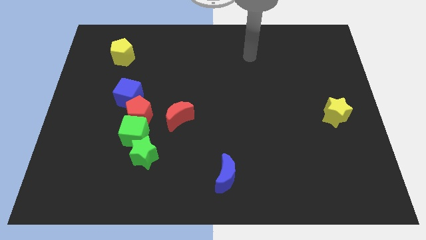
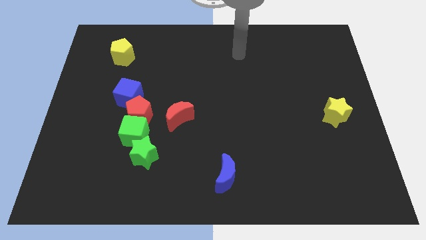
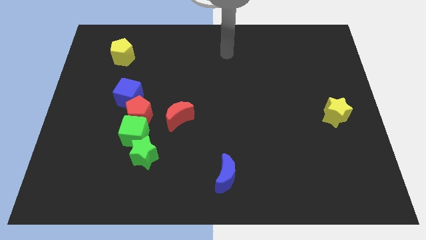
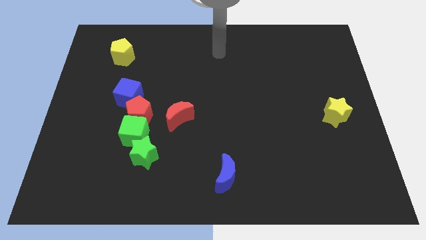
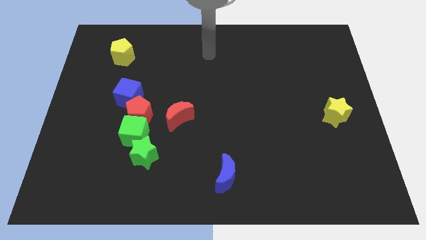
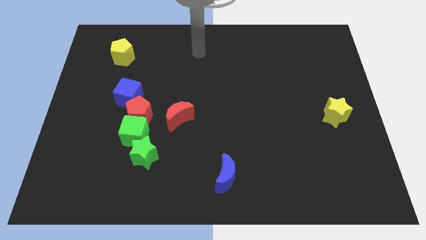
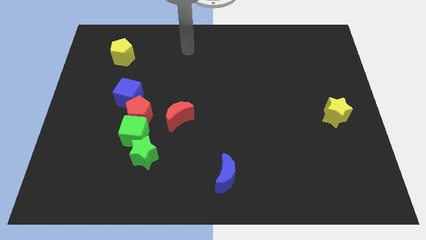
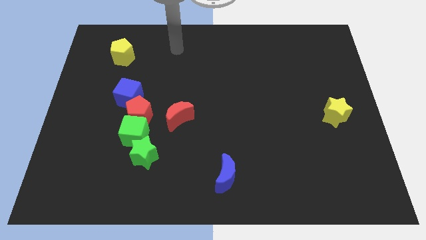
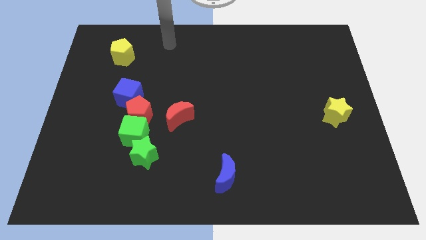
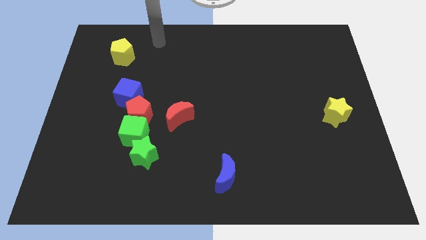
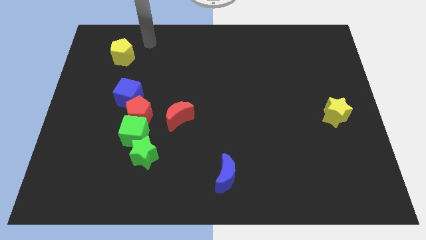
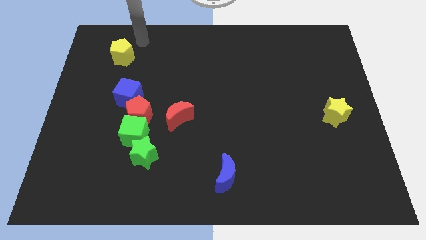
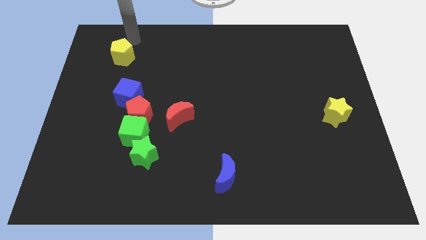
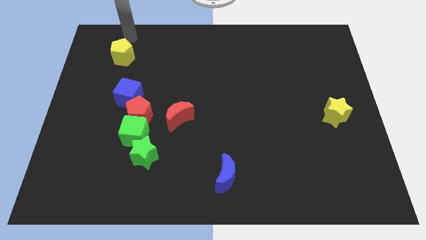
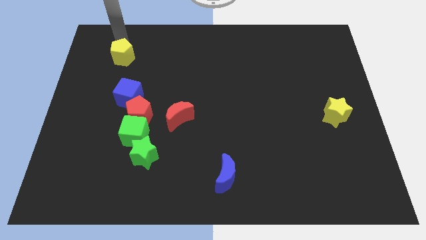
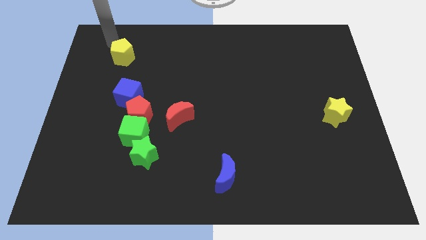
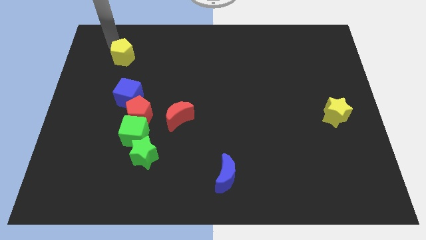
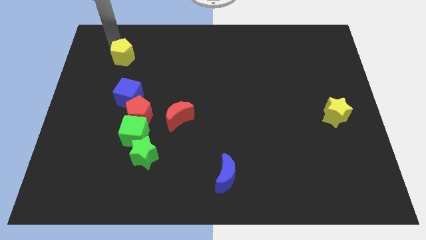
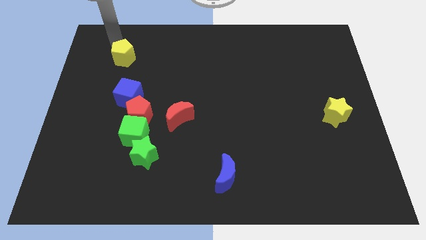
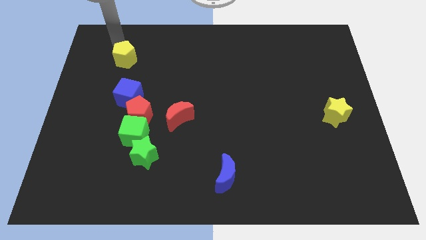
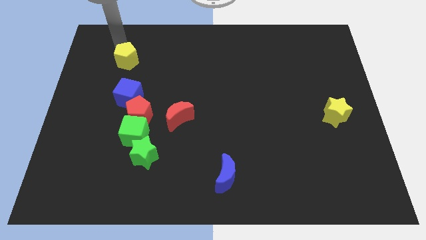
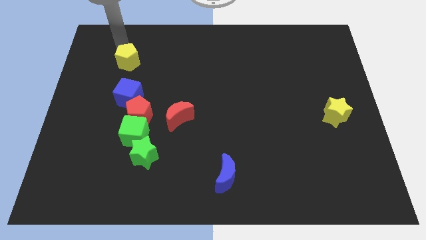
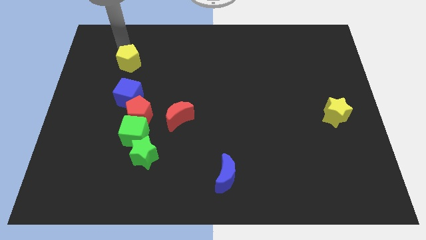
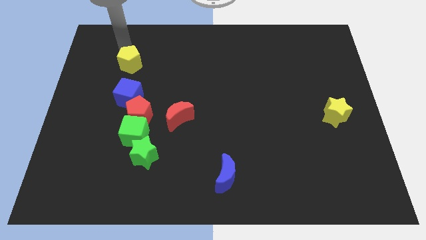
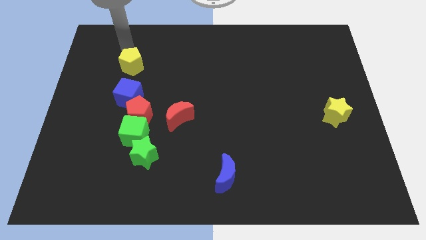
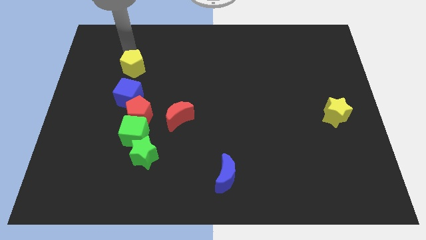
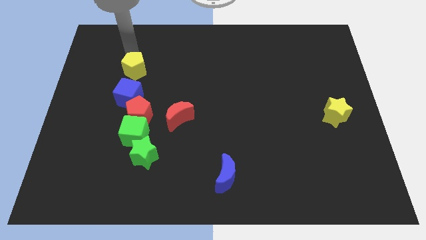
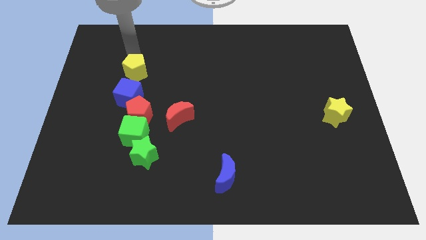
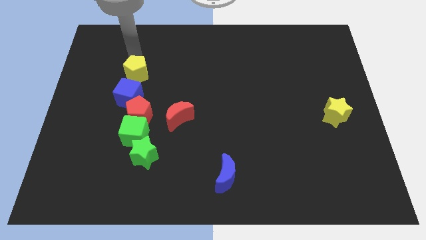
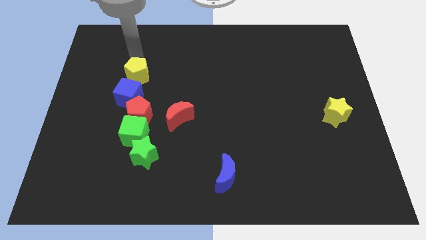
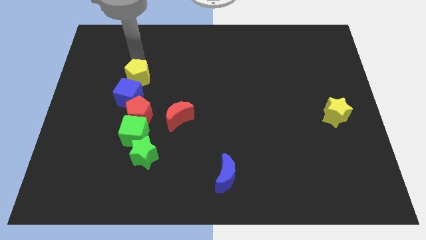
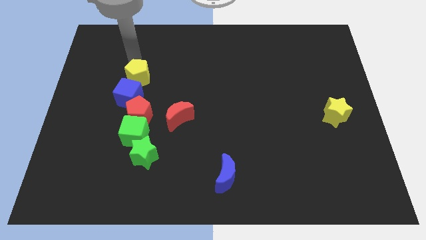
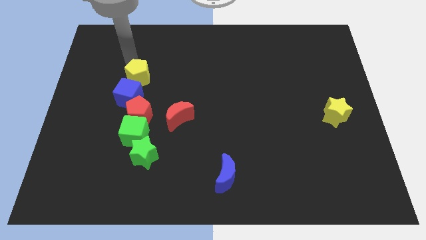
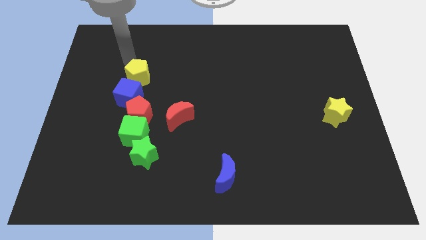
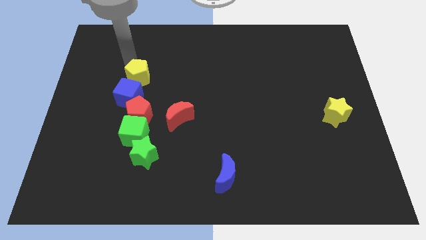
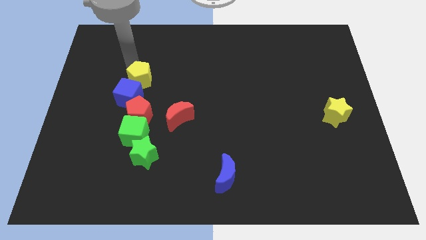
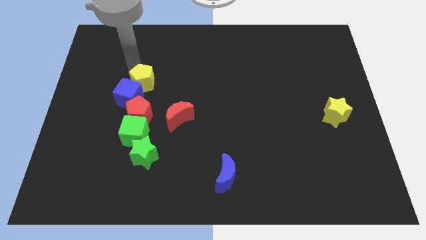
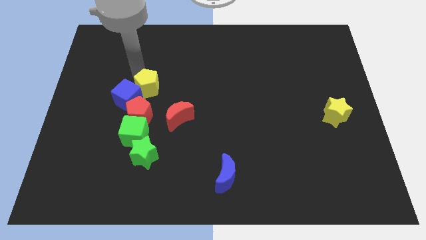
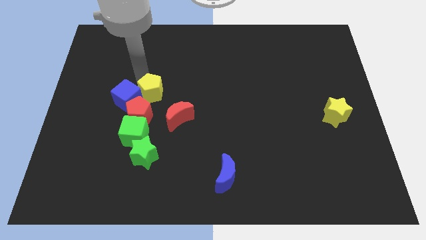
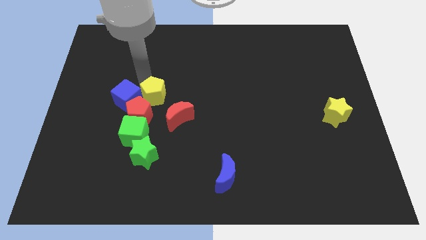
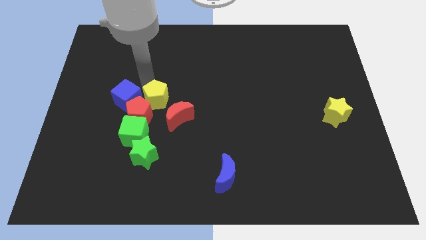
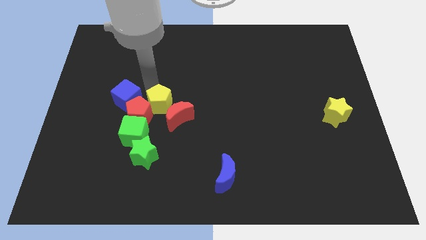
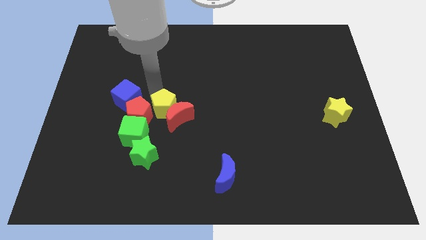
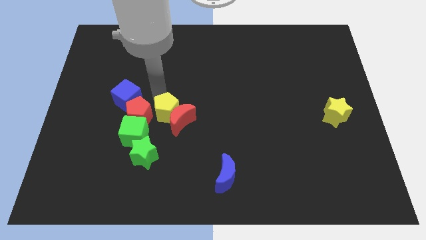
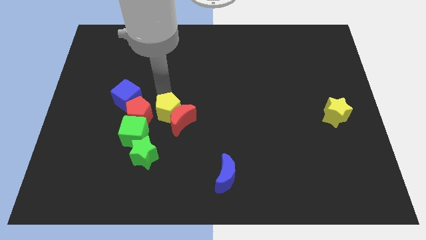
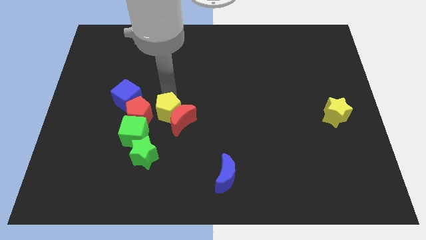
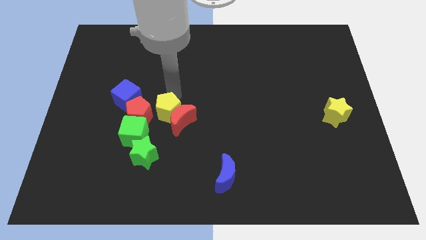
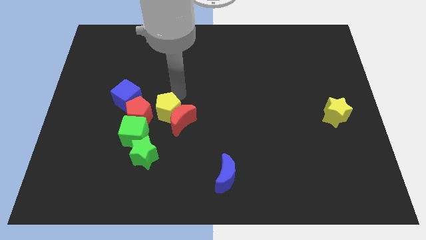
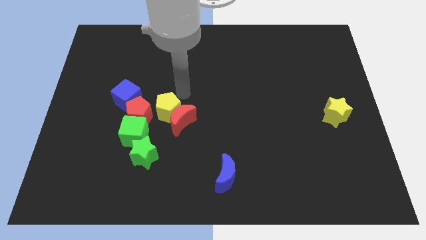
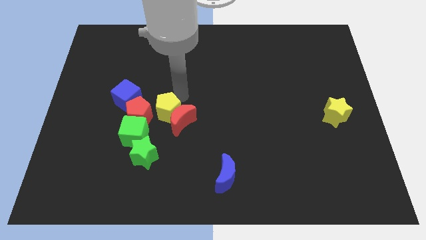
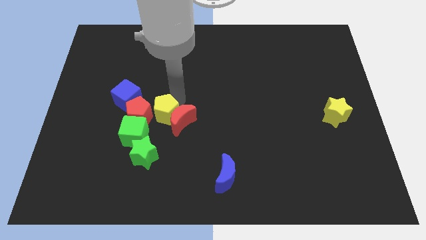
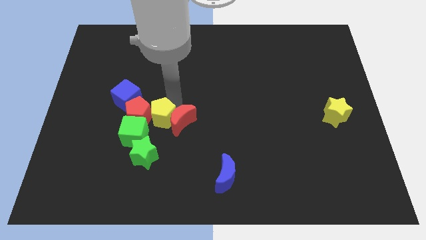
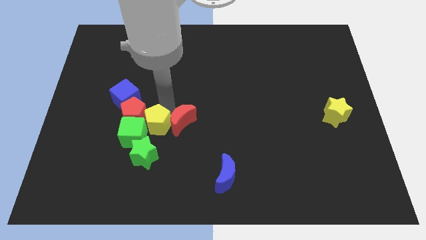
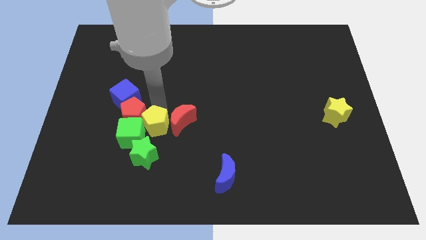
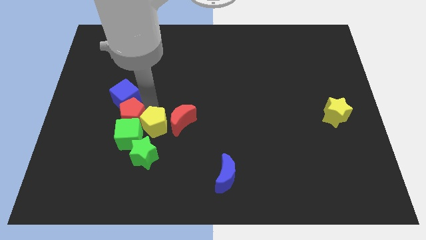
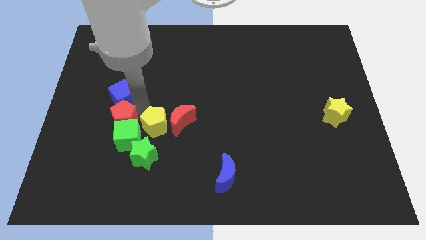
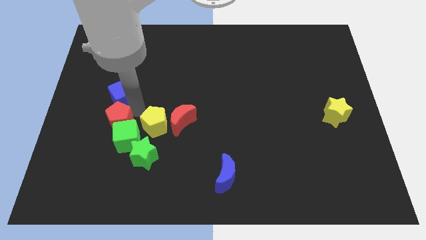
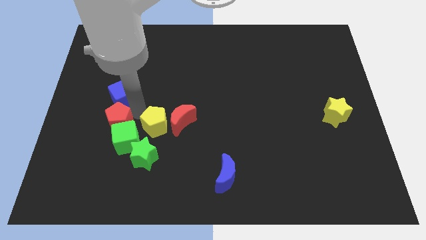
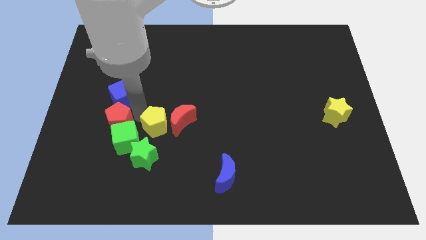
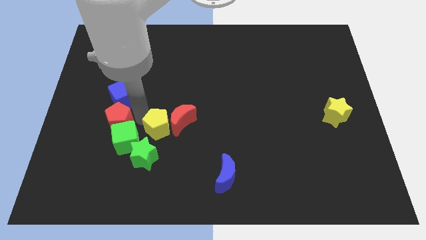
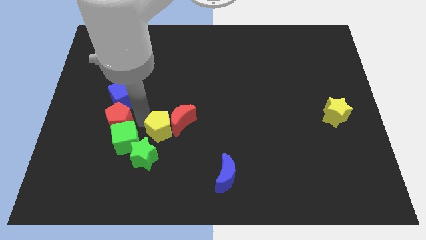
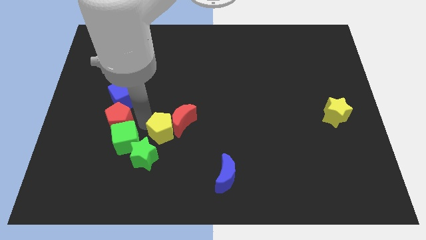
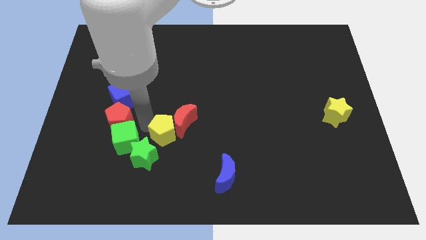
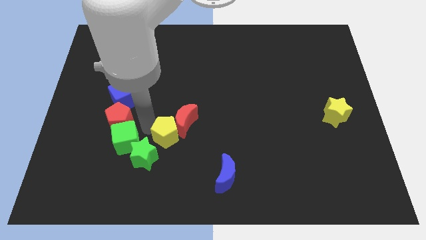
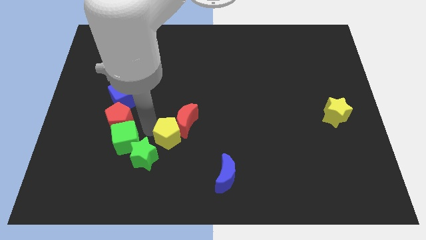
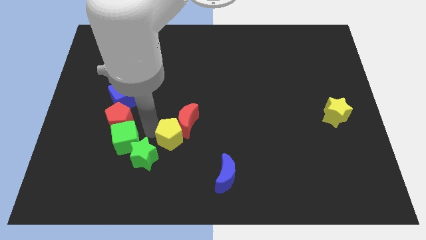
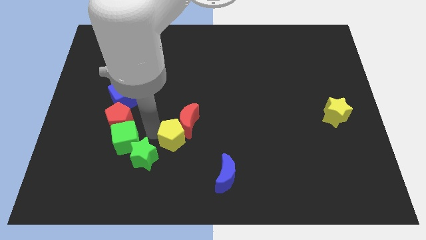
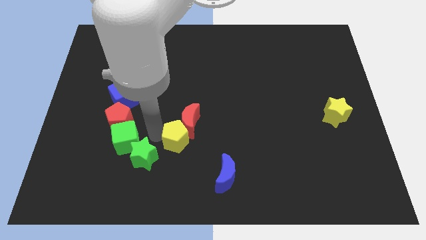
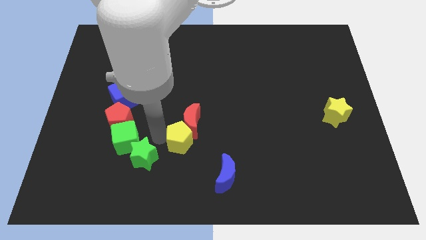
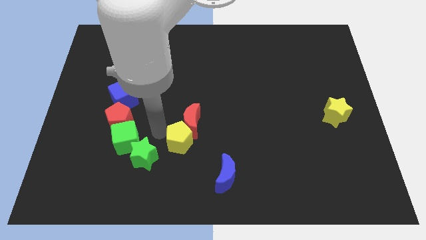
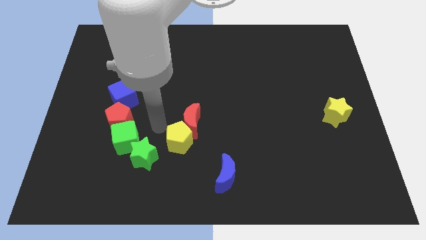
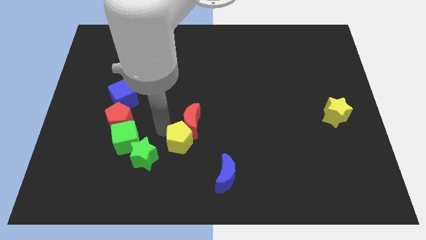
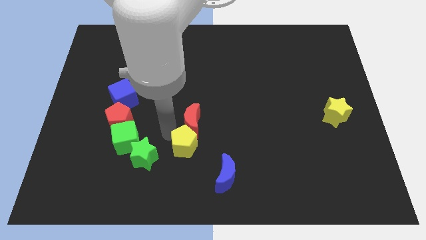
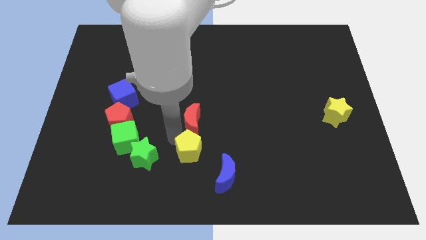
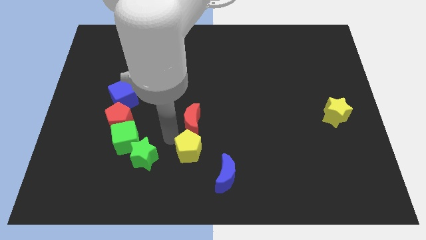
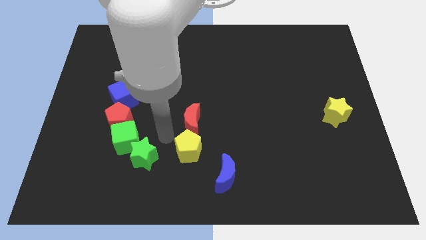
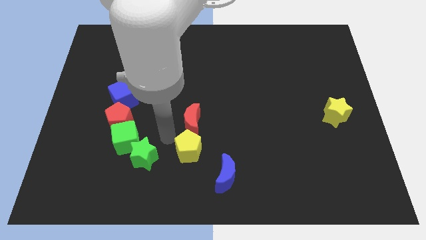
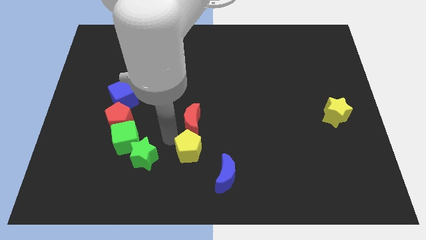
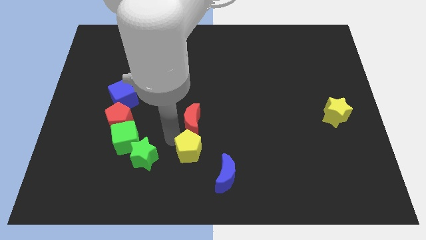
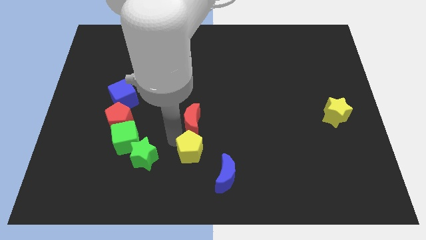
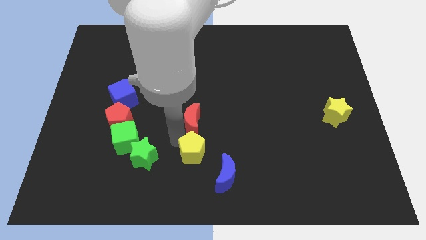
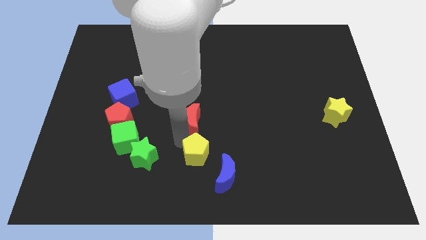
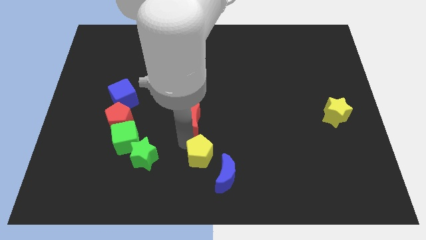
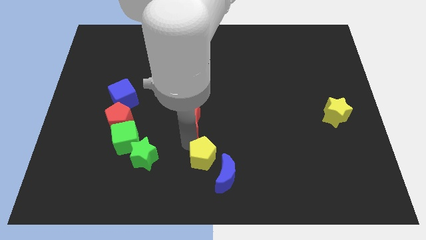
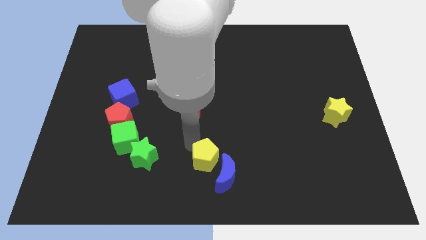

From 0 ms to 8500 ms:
slide the yellow pentagon close to the blue moon

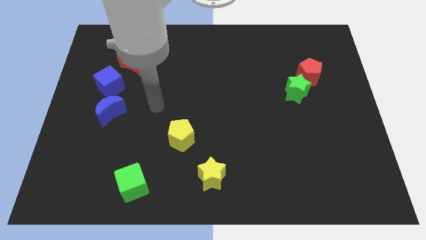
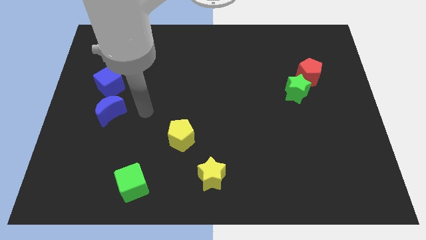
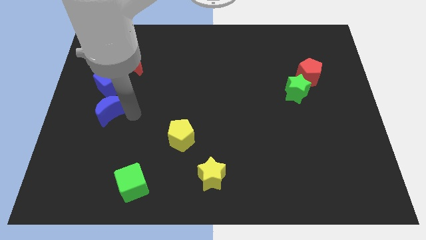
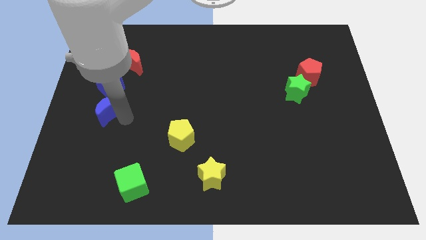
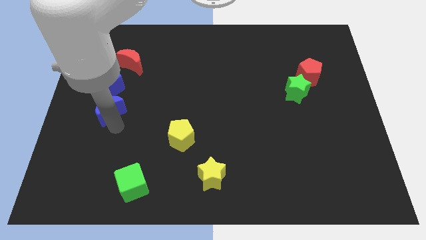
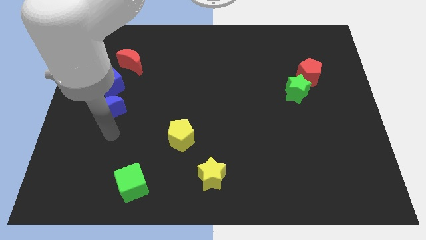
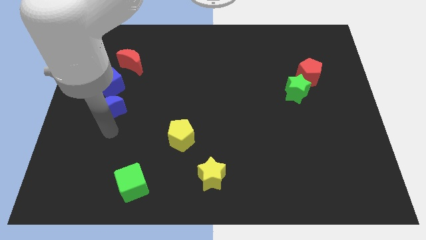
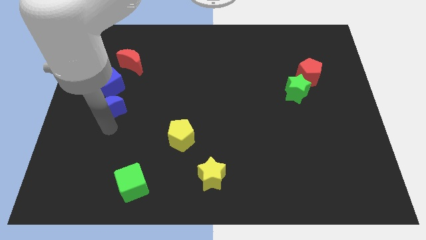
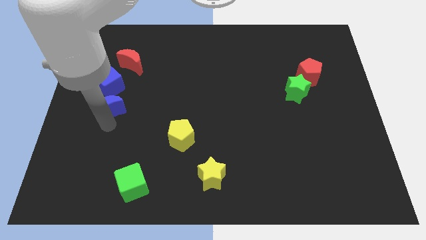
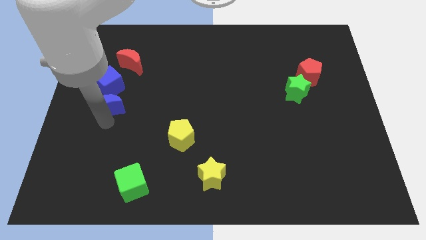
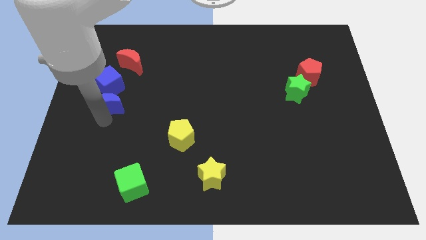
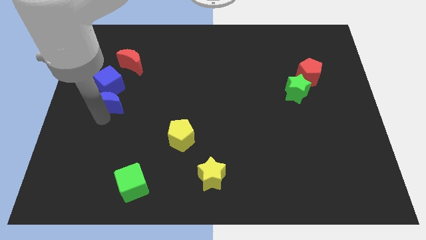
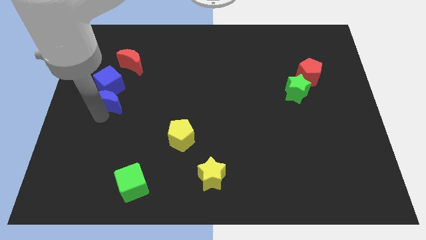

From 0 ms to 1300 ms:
slide the blue moon close to the blue cube
